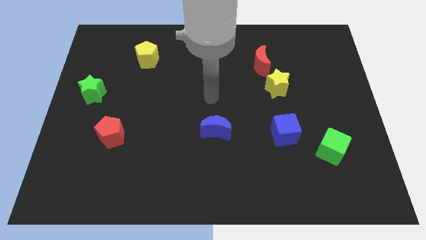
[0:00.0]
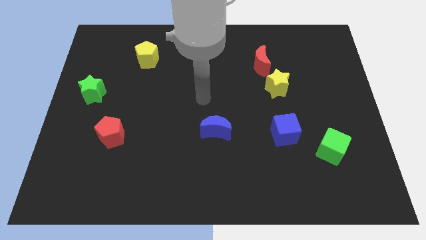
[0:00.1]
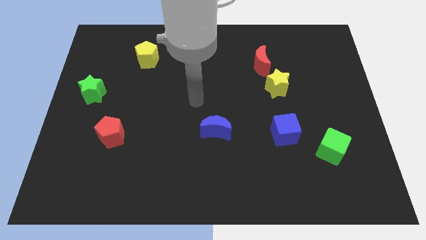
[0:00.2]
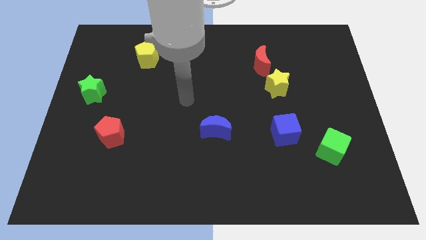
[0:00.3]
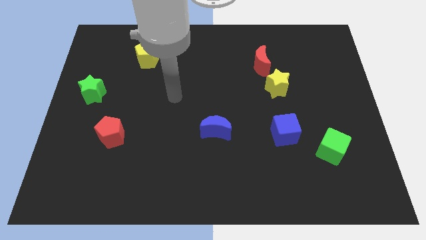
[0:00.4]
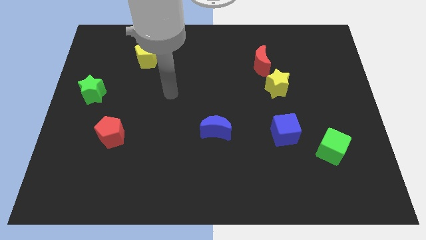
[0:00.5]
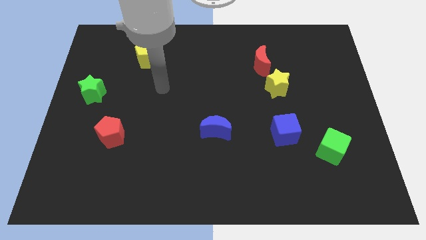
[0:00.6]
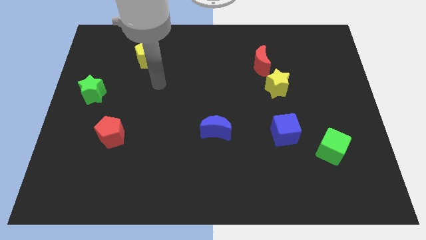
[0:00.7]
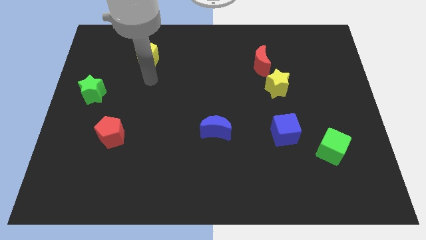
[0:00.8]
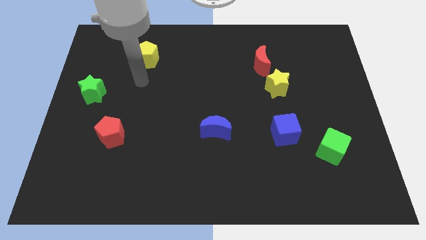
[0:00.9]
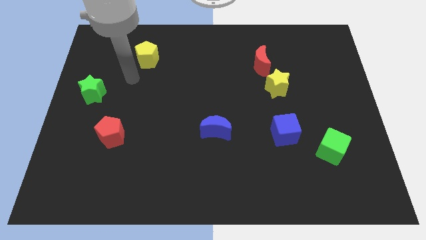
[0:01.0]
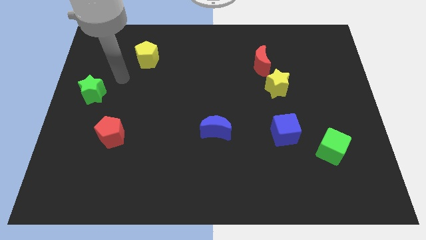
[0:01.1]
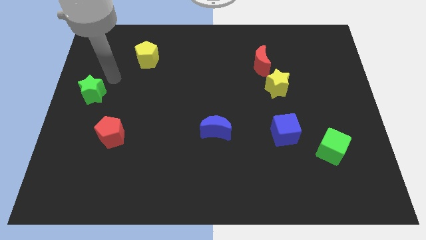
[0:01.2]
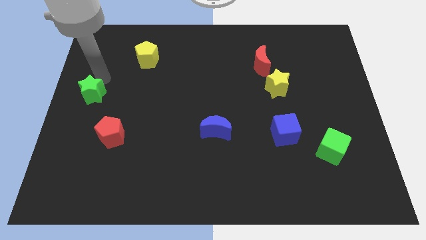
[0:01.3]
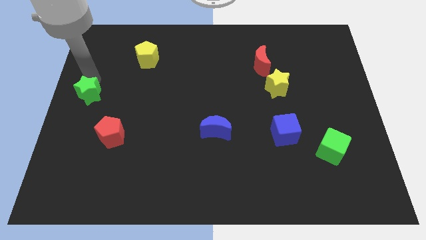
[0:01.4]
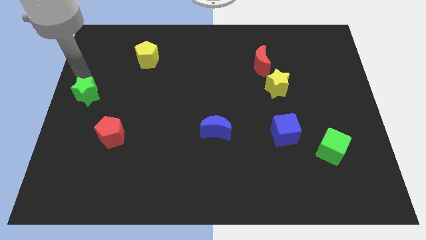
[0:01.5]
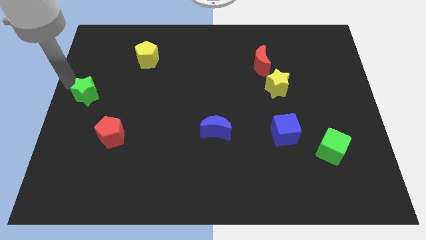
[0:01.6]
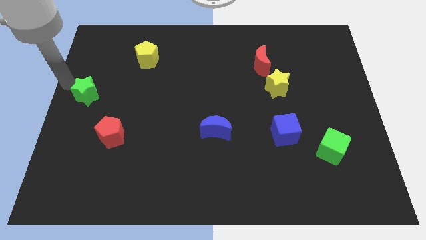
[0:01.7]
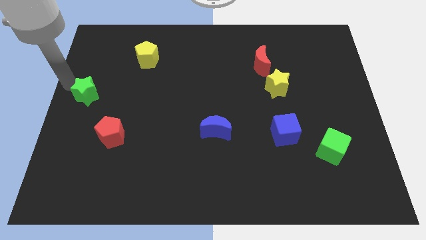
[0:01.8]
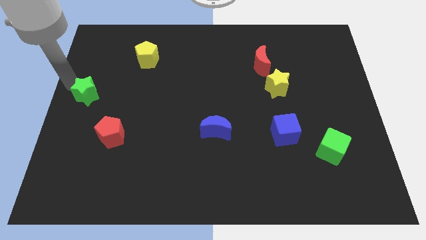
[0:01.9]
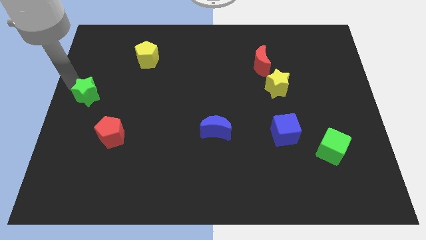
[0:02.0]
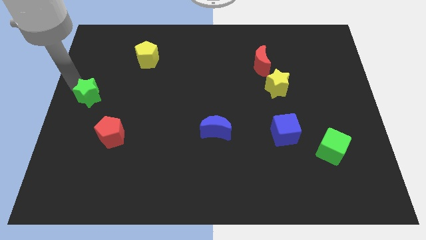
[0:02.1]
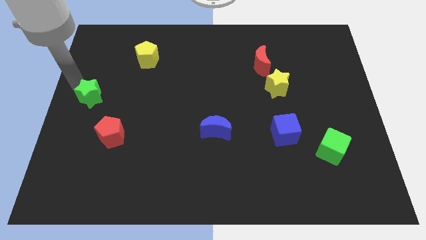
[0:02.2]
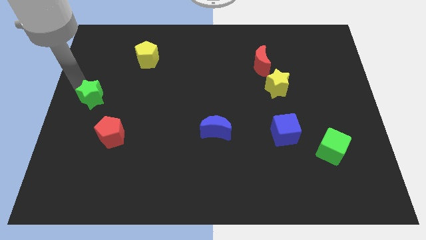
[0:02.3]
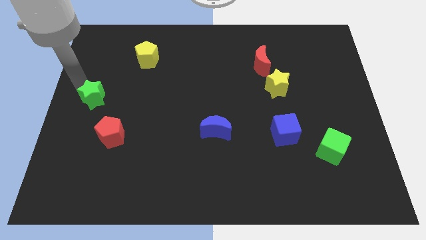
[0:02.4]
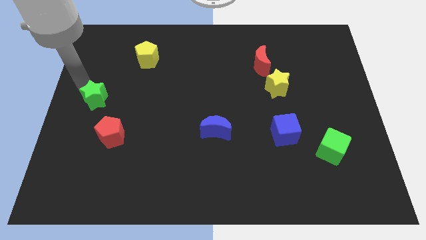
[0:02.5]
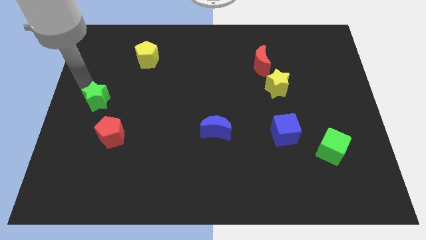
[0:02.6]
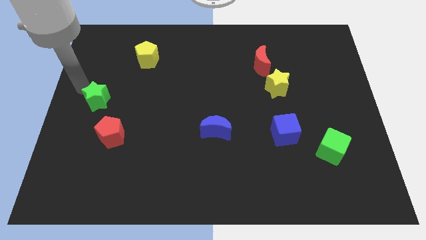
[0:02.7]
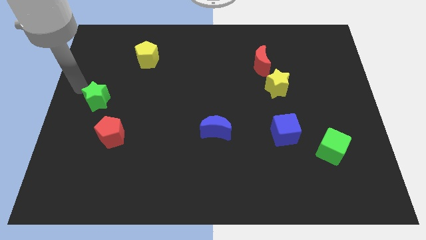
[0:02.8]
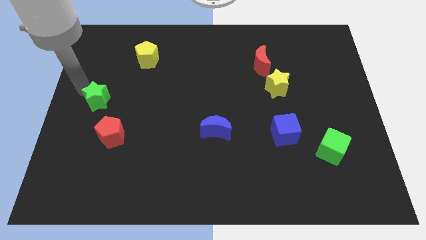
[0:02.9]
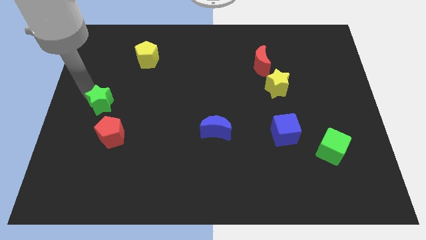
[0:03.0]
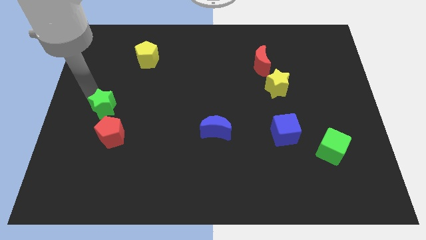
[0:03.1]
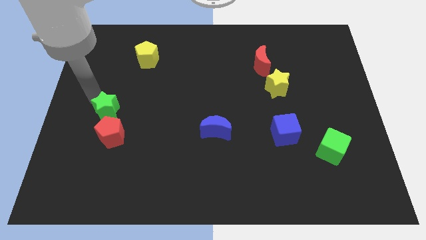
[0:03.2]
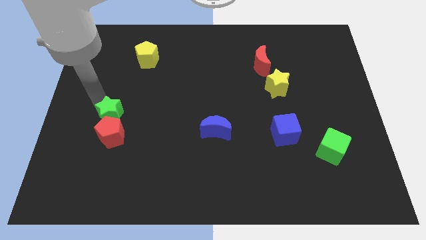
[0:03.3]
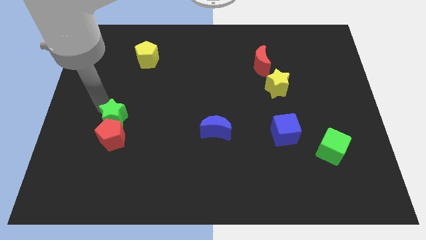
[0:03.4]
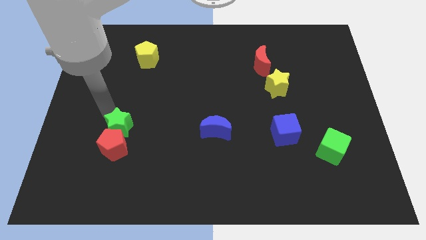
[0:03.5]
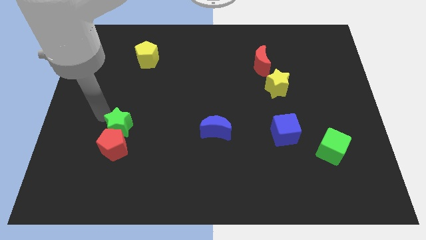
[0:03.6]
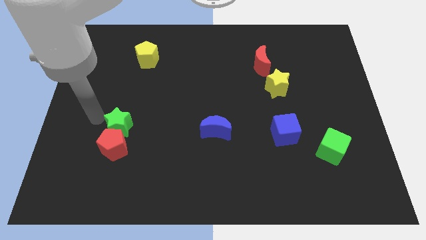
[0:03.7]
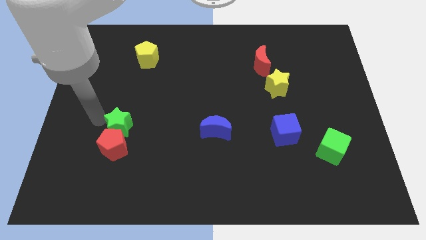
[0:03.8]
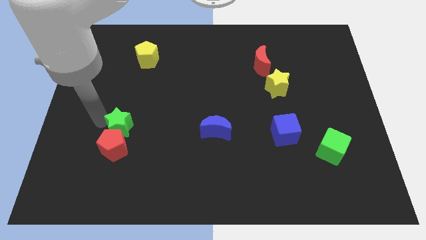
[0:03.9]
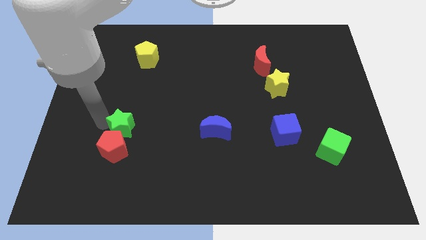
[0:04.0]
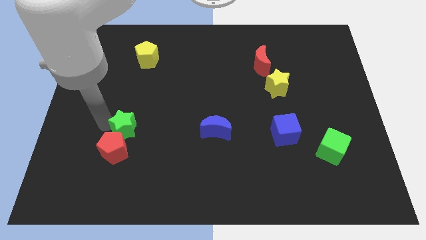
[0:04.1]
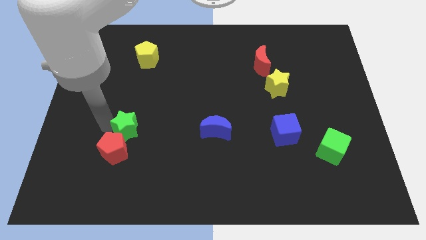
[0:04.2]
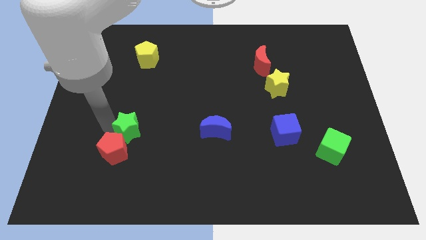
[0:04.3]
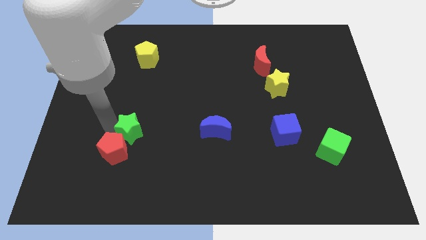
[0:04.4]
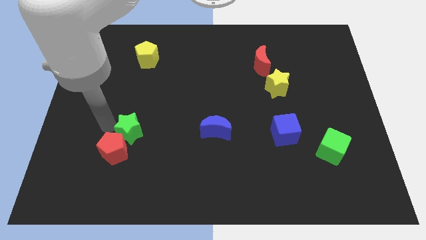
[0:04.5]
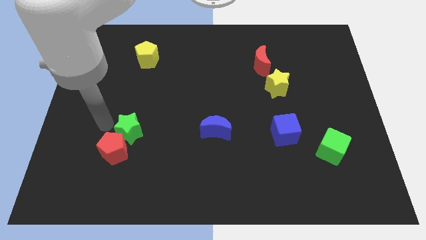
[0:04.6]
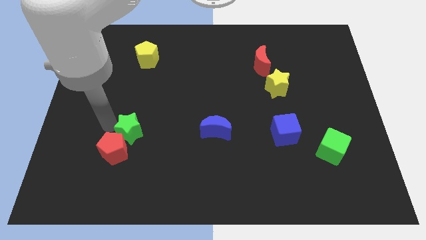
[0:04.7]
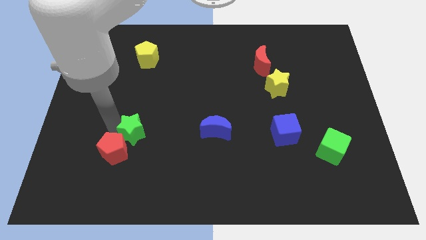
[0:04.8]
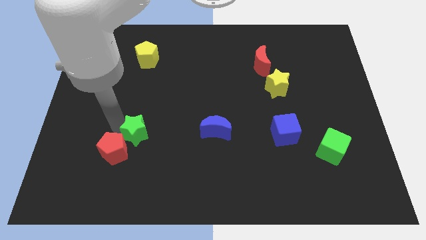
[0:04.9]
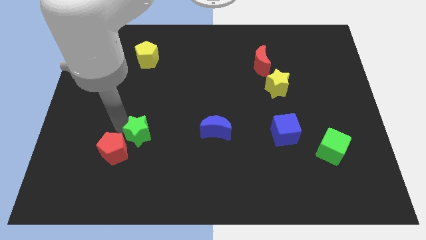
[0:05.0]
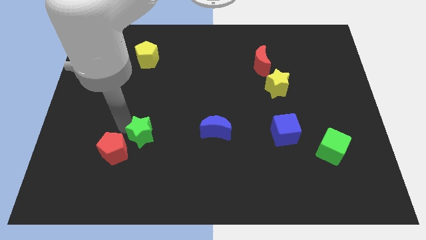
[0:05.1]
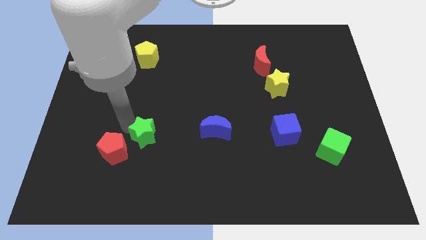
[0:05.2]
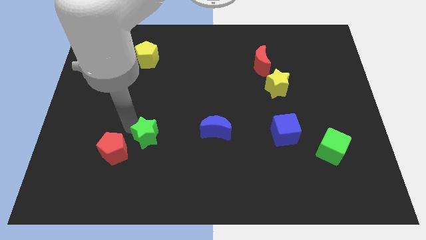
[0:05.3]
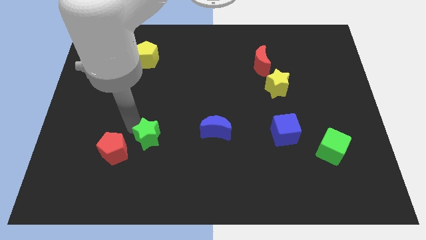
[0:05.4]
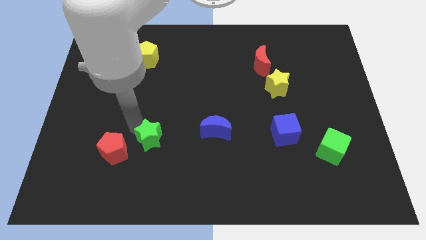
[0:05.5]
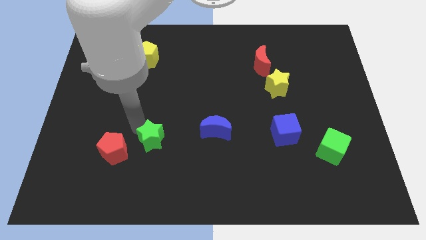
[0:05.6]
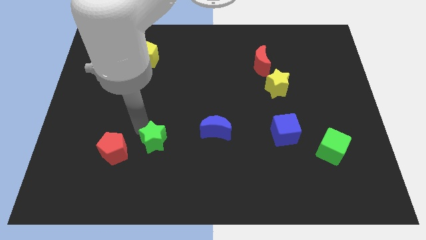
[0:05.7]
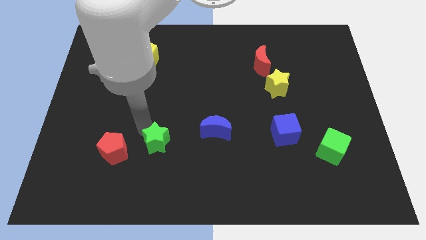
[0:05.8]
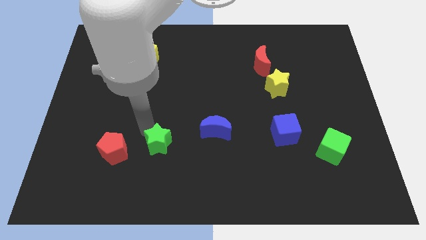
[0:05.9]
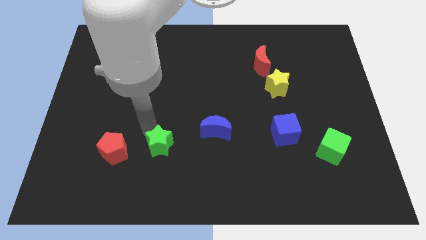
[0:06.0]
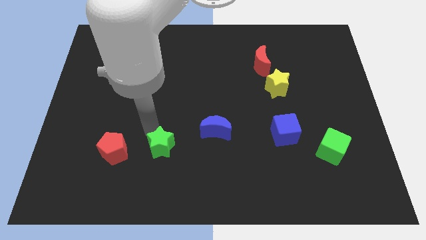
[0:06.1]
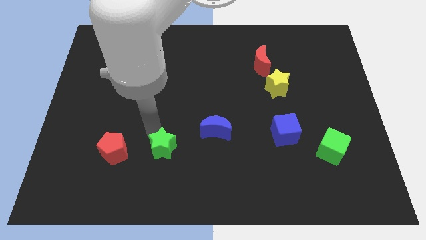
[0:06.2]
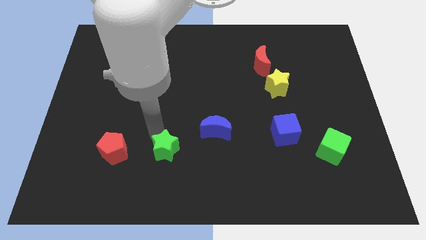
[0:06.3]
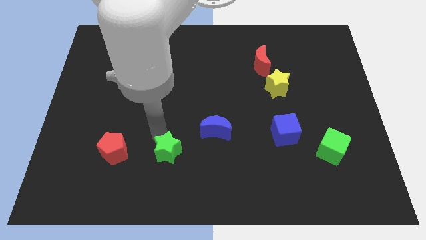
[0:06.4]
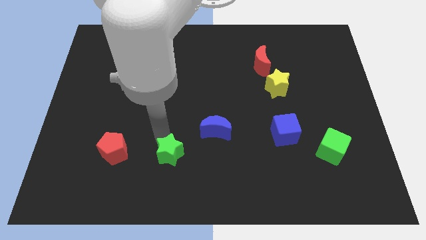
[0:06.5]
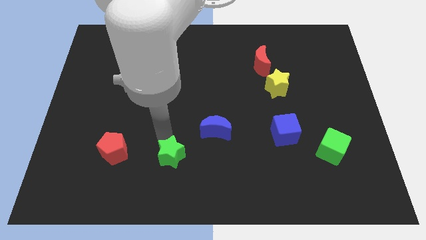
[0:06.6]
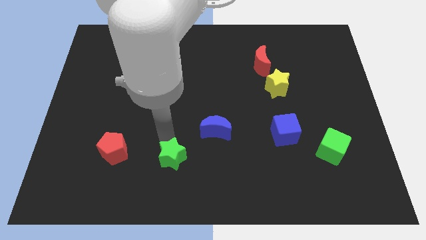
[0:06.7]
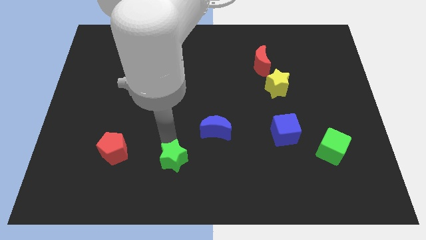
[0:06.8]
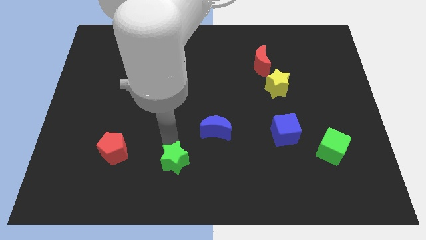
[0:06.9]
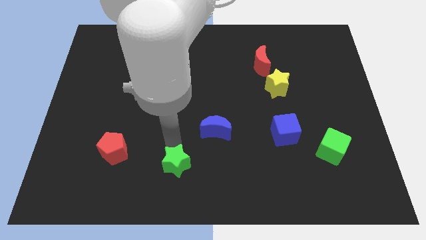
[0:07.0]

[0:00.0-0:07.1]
put the green star to the bottom

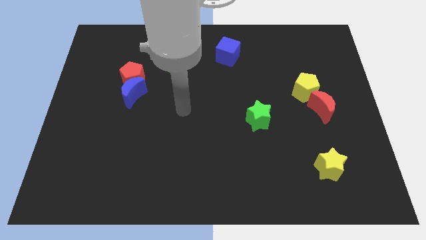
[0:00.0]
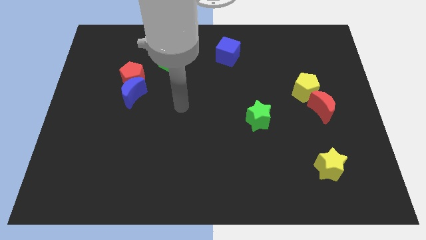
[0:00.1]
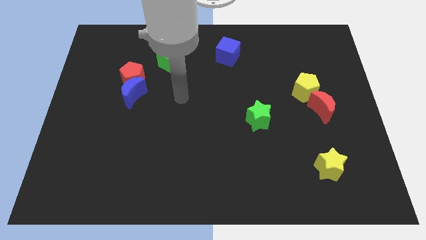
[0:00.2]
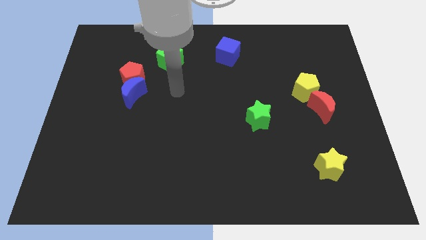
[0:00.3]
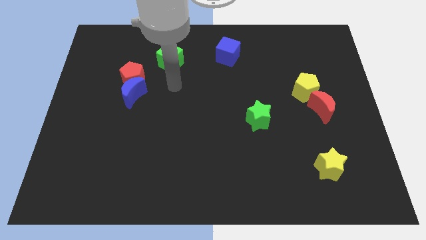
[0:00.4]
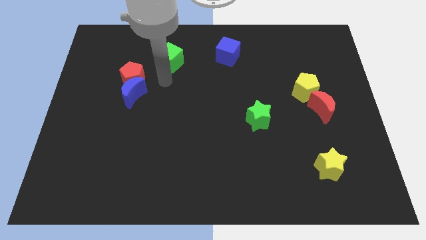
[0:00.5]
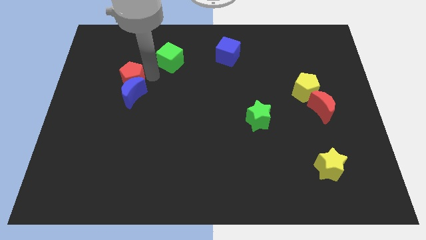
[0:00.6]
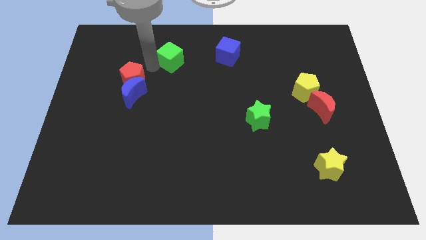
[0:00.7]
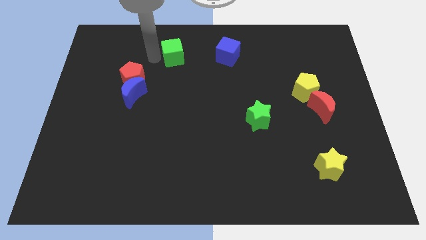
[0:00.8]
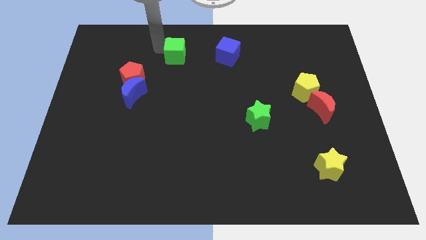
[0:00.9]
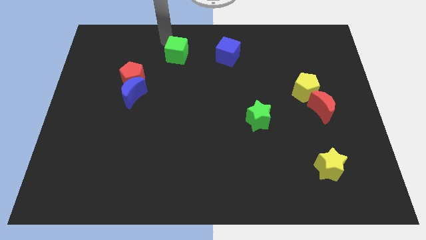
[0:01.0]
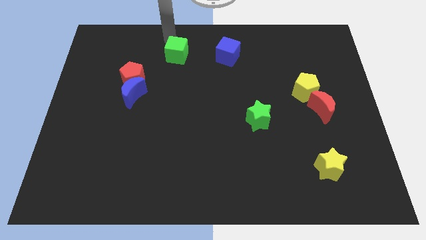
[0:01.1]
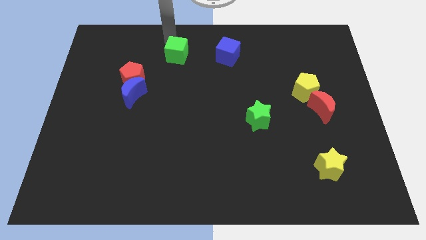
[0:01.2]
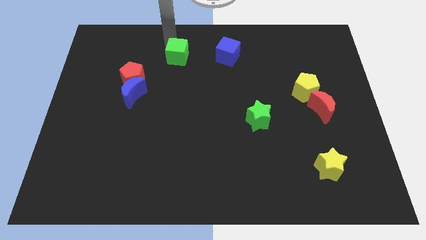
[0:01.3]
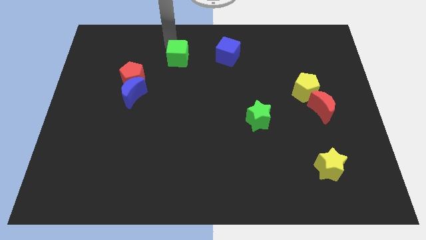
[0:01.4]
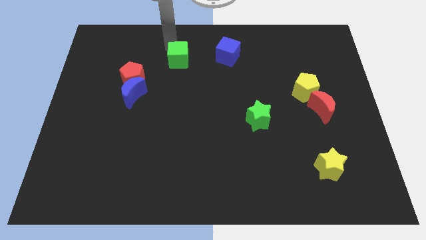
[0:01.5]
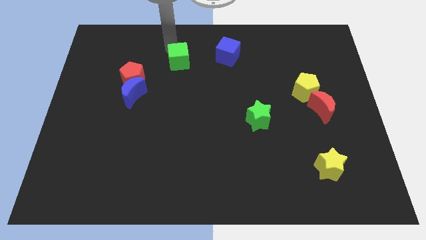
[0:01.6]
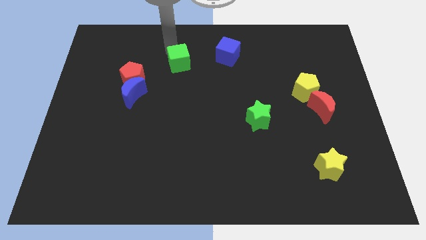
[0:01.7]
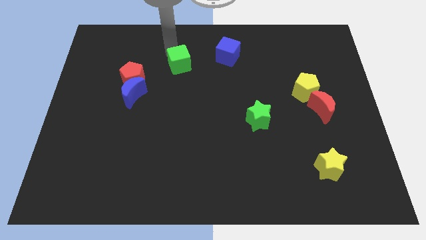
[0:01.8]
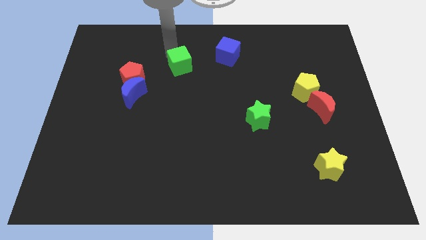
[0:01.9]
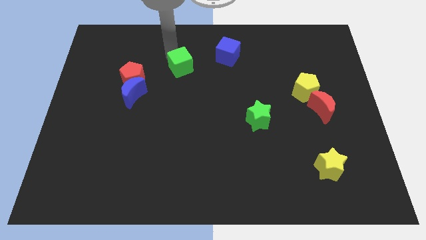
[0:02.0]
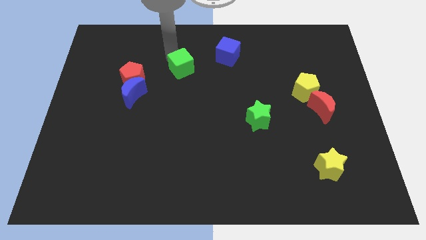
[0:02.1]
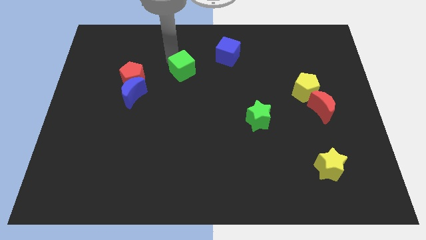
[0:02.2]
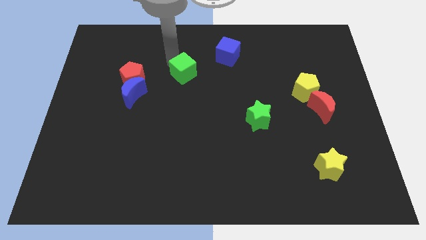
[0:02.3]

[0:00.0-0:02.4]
move the green cube to the center of the board
